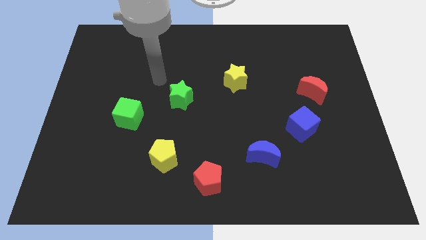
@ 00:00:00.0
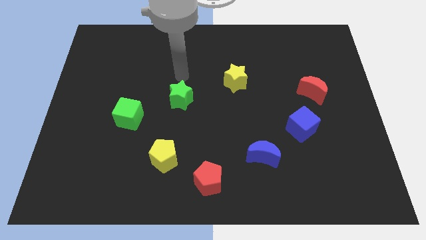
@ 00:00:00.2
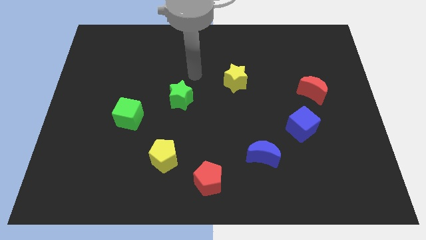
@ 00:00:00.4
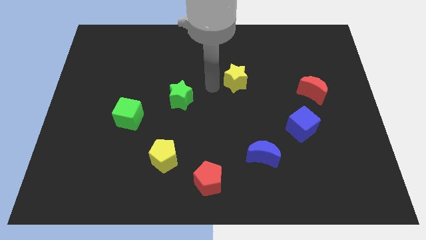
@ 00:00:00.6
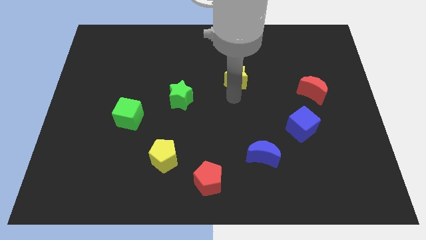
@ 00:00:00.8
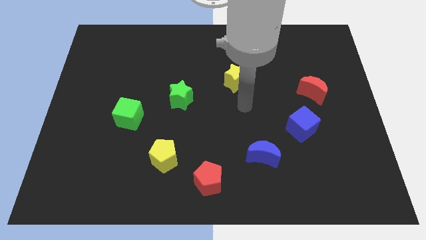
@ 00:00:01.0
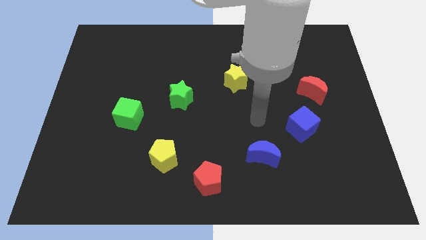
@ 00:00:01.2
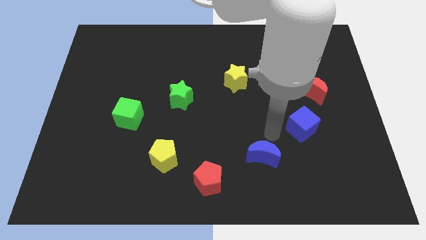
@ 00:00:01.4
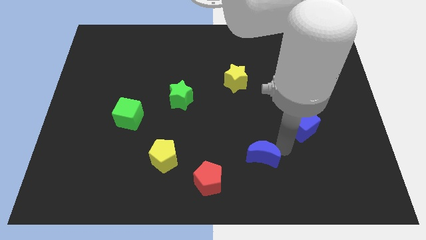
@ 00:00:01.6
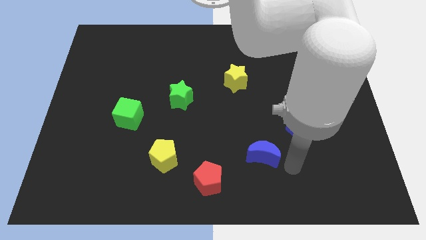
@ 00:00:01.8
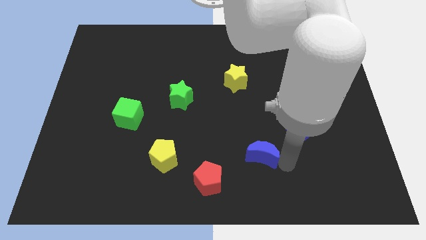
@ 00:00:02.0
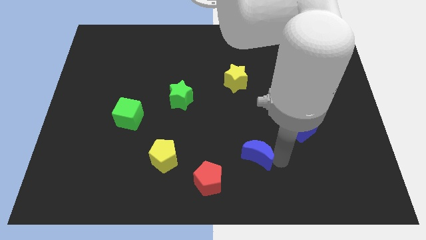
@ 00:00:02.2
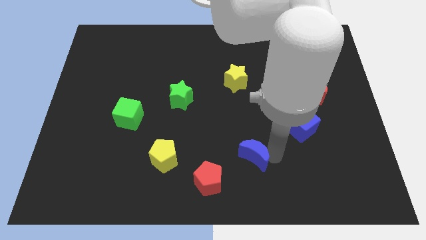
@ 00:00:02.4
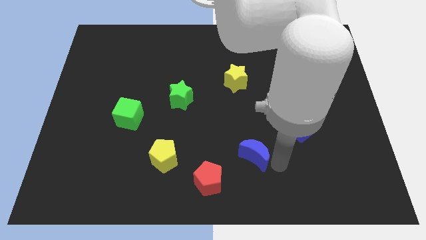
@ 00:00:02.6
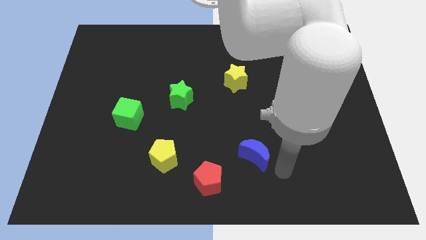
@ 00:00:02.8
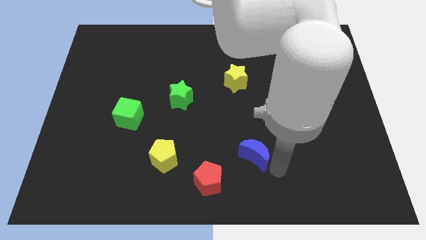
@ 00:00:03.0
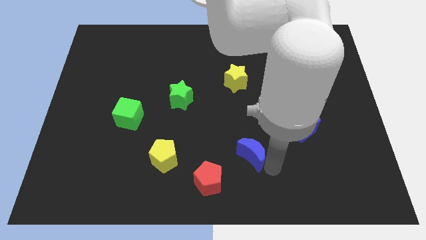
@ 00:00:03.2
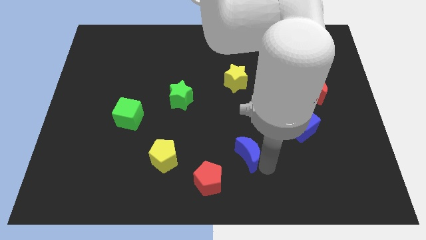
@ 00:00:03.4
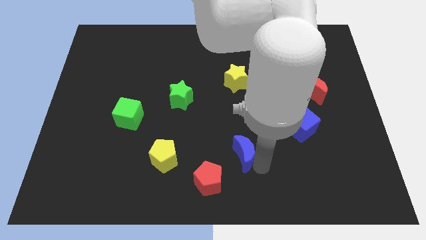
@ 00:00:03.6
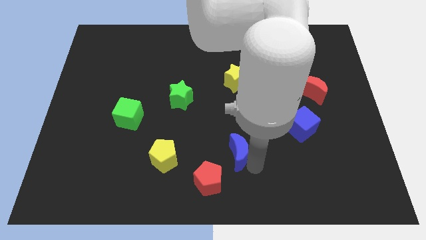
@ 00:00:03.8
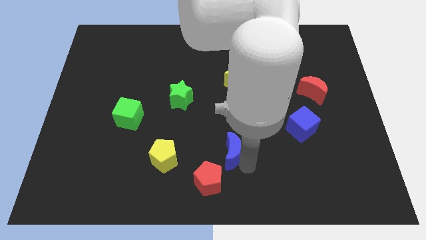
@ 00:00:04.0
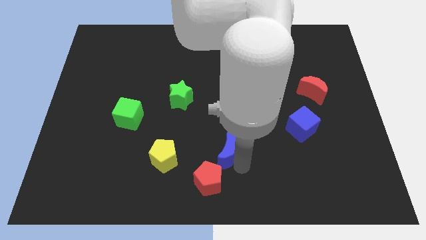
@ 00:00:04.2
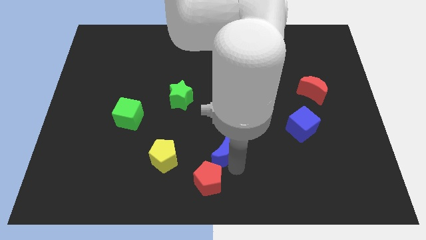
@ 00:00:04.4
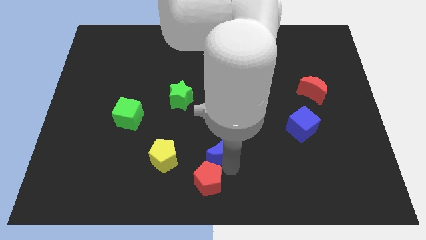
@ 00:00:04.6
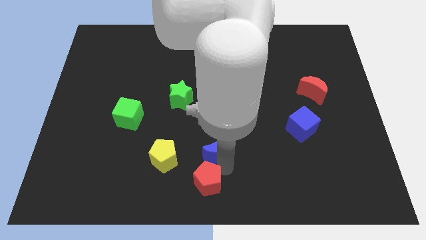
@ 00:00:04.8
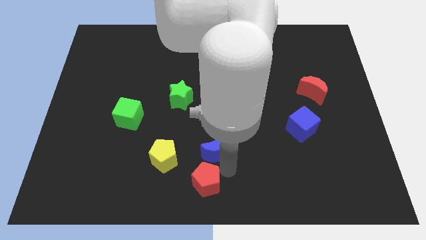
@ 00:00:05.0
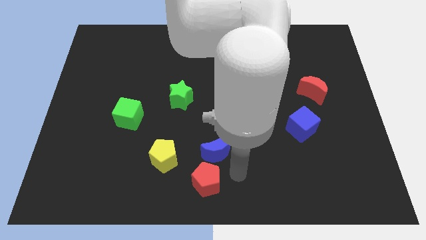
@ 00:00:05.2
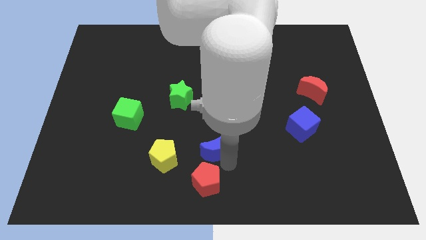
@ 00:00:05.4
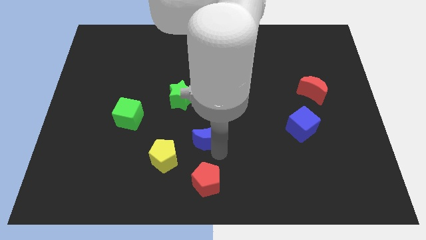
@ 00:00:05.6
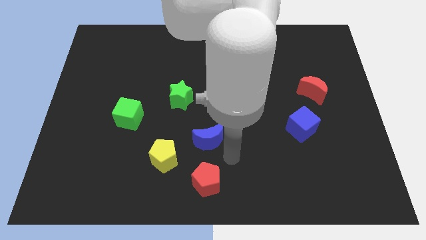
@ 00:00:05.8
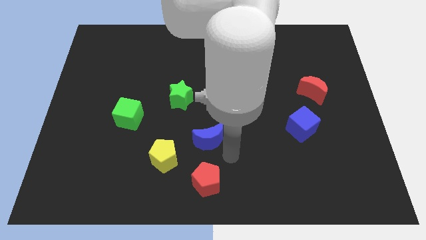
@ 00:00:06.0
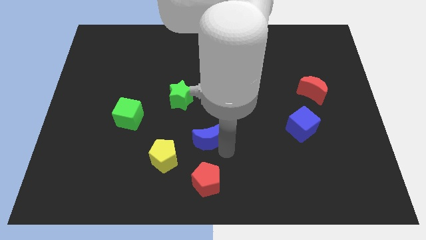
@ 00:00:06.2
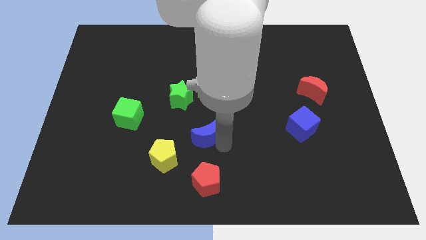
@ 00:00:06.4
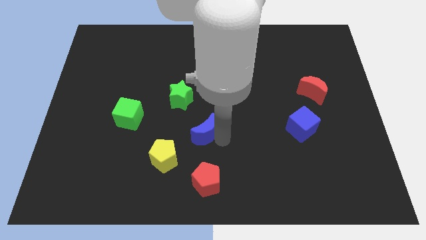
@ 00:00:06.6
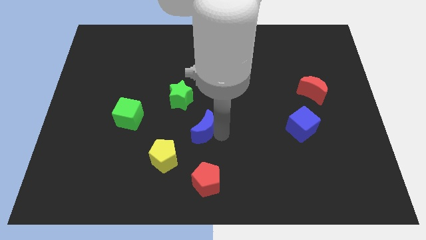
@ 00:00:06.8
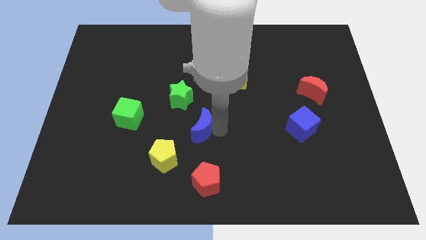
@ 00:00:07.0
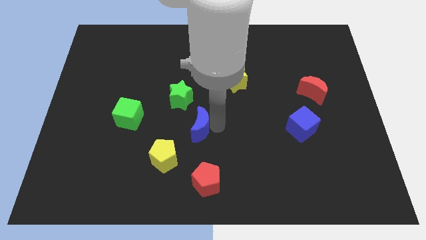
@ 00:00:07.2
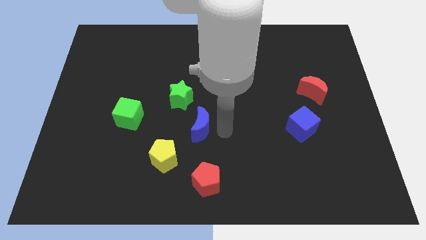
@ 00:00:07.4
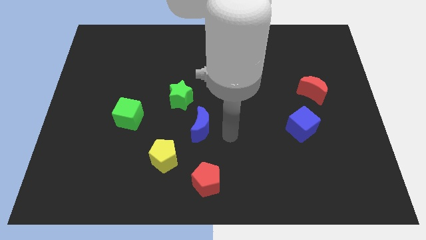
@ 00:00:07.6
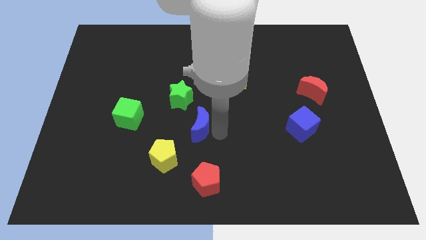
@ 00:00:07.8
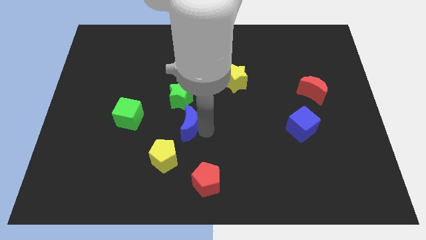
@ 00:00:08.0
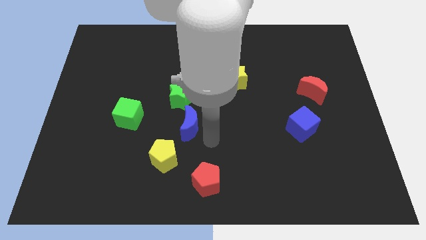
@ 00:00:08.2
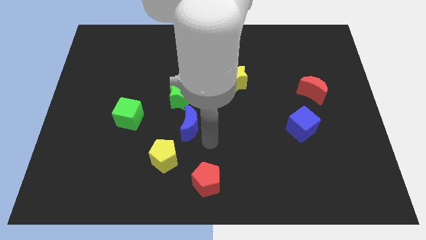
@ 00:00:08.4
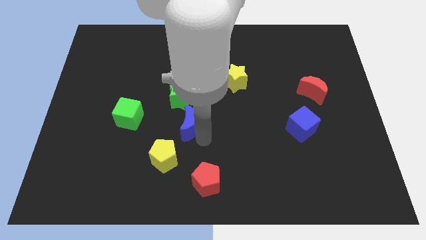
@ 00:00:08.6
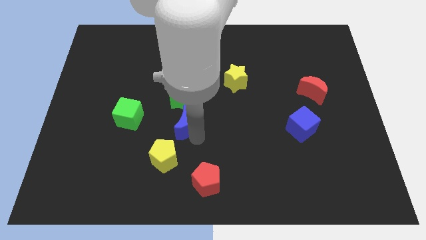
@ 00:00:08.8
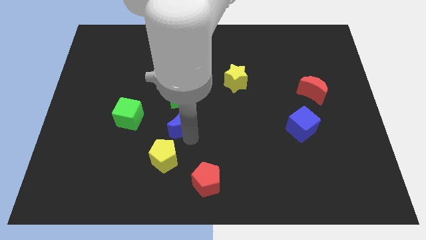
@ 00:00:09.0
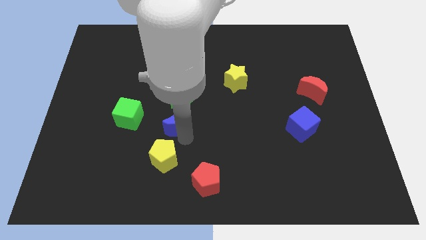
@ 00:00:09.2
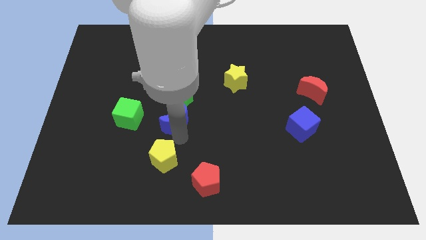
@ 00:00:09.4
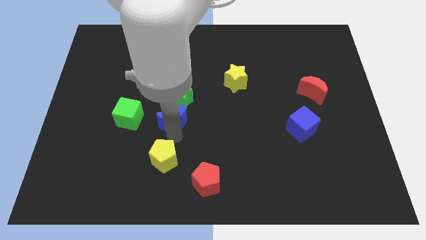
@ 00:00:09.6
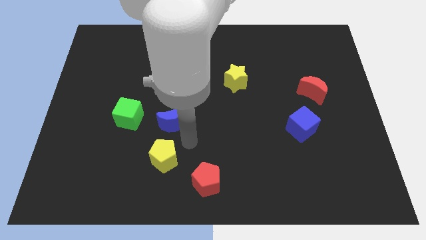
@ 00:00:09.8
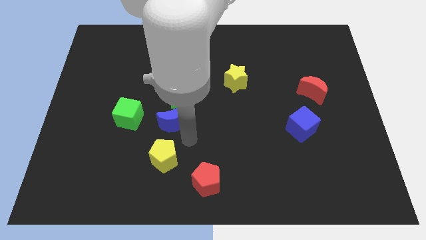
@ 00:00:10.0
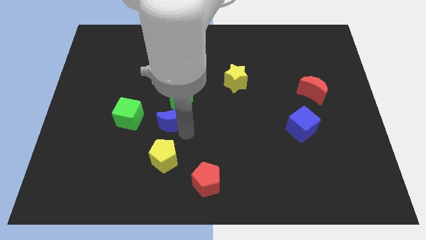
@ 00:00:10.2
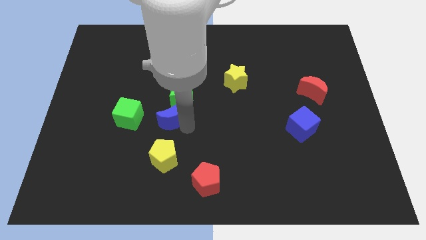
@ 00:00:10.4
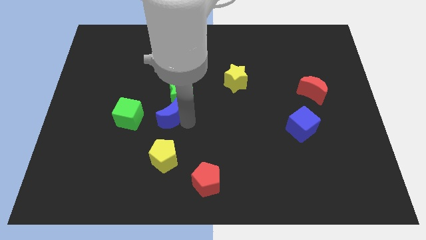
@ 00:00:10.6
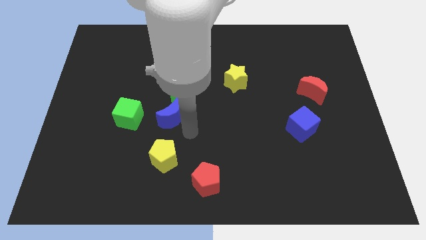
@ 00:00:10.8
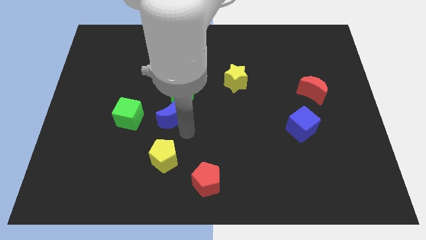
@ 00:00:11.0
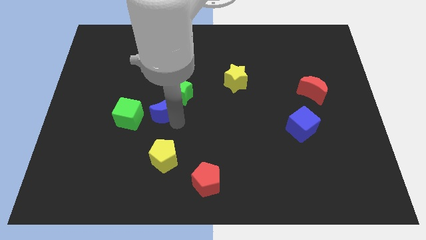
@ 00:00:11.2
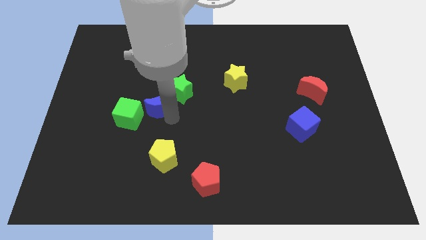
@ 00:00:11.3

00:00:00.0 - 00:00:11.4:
move the blue moon to the top right of the green cube

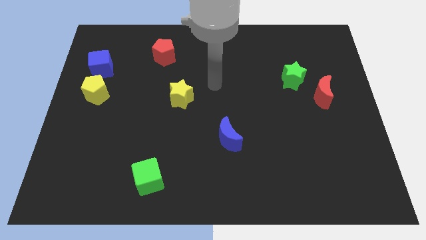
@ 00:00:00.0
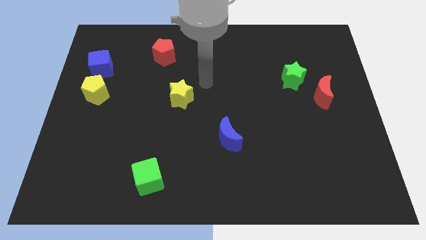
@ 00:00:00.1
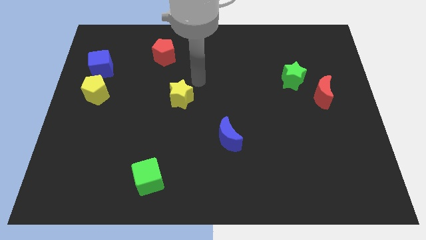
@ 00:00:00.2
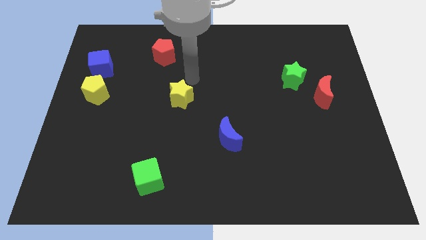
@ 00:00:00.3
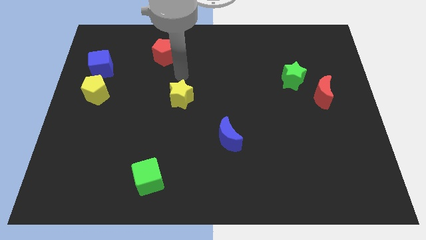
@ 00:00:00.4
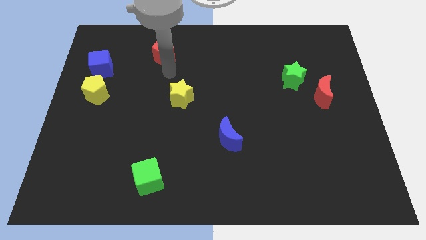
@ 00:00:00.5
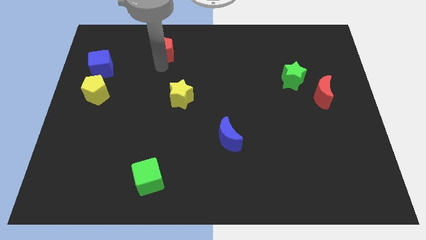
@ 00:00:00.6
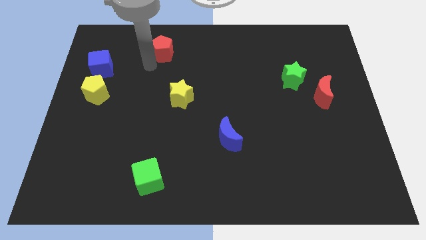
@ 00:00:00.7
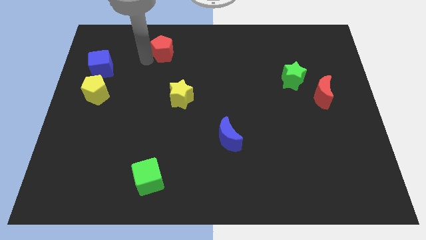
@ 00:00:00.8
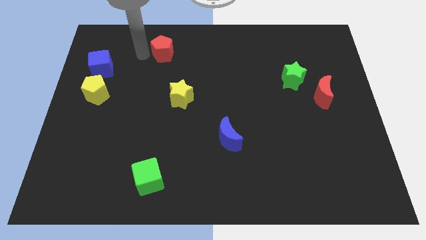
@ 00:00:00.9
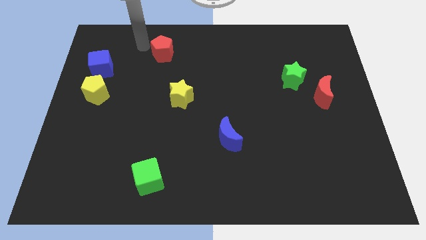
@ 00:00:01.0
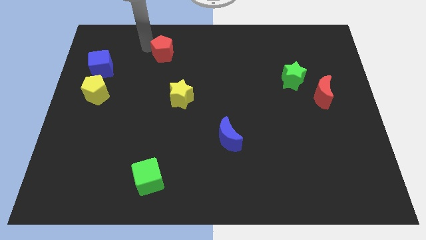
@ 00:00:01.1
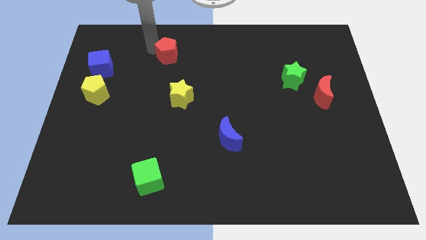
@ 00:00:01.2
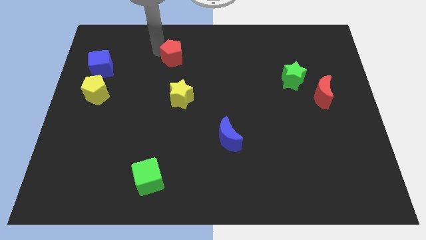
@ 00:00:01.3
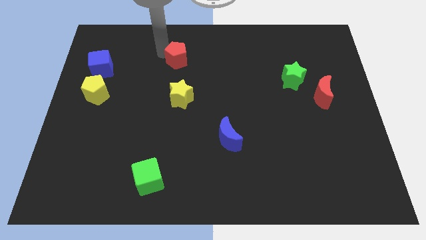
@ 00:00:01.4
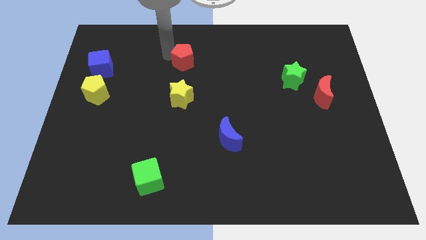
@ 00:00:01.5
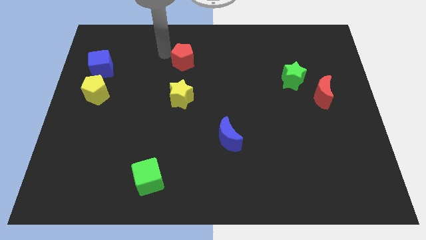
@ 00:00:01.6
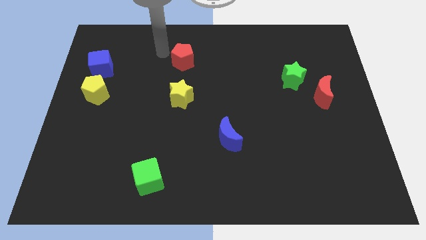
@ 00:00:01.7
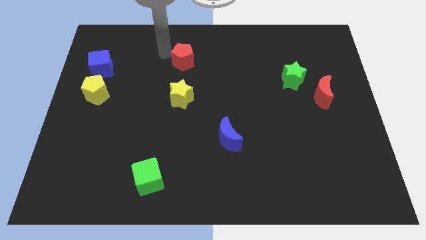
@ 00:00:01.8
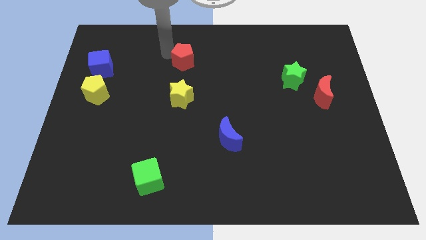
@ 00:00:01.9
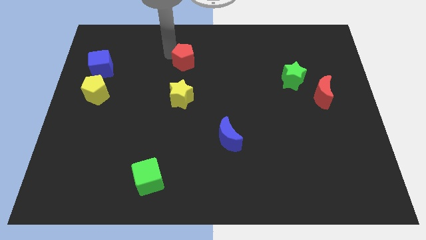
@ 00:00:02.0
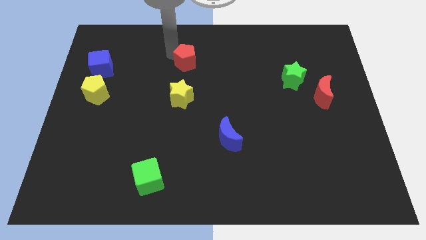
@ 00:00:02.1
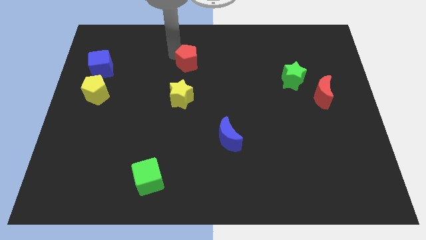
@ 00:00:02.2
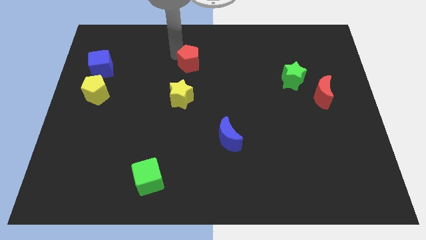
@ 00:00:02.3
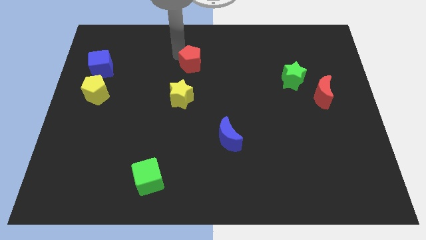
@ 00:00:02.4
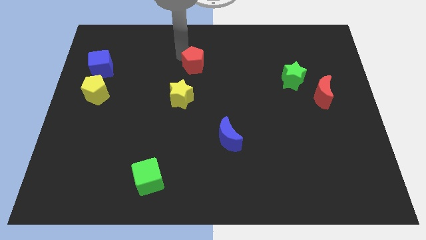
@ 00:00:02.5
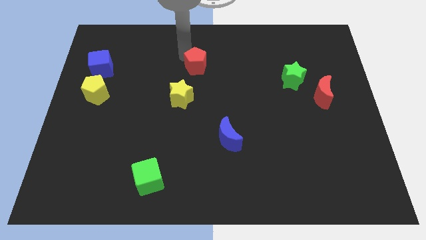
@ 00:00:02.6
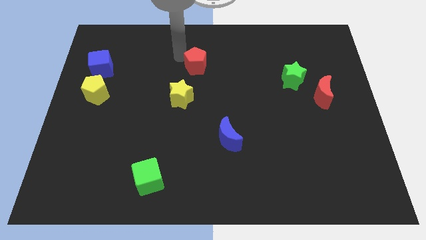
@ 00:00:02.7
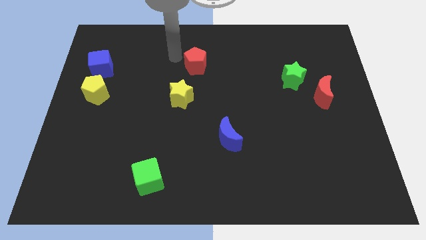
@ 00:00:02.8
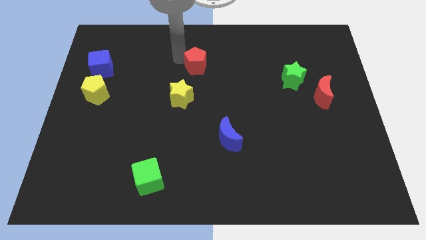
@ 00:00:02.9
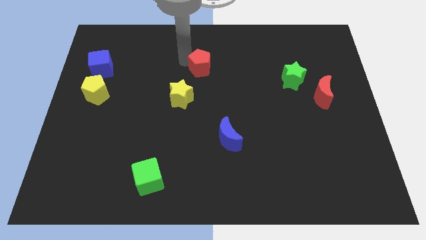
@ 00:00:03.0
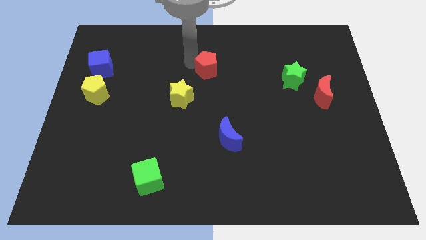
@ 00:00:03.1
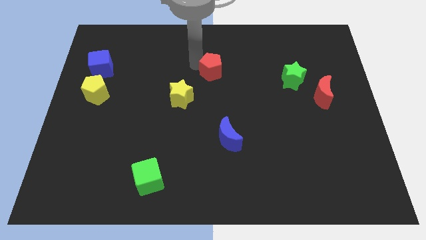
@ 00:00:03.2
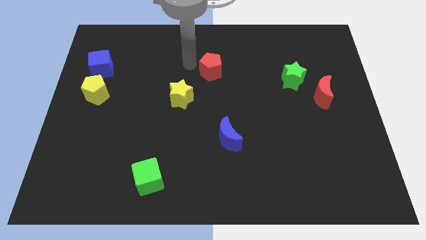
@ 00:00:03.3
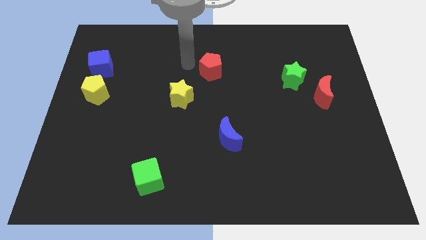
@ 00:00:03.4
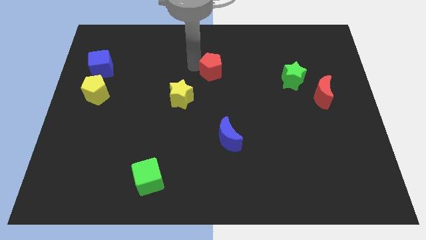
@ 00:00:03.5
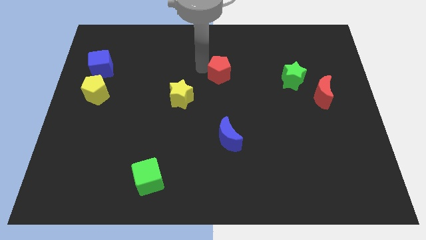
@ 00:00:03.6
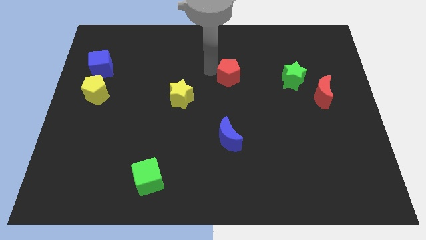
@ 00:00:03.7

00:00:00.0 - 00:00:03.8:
put the red pentagon left of the green star
